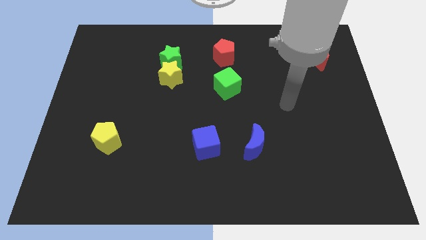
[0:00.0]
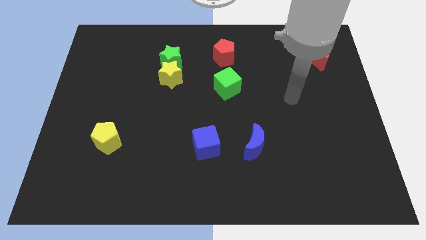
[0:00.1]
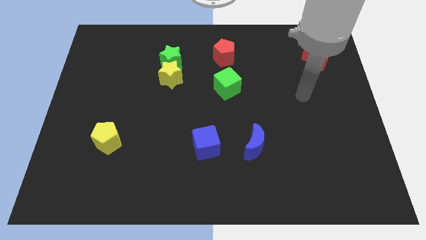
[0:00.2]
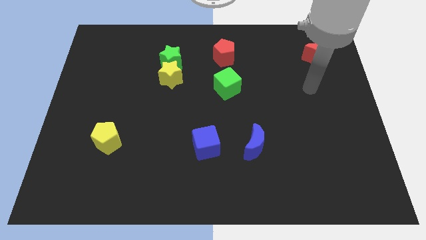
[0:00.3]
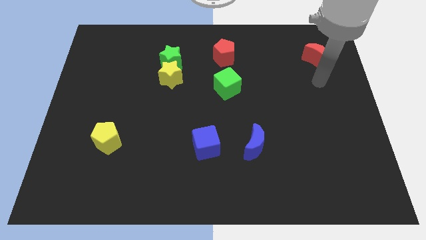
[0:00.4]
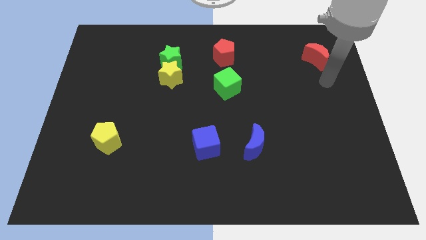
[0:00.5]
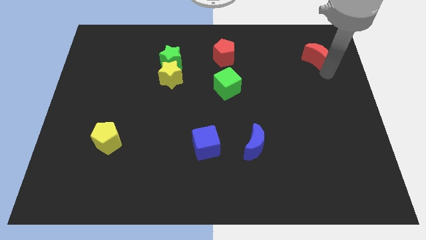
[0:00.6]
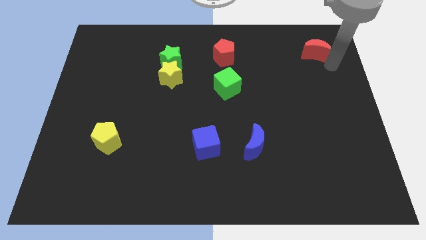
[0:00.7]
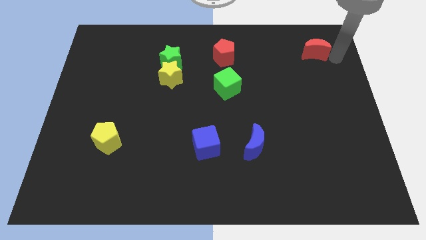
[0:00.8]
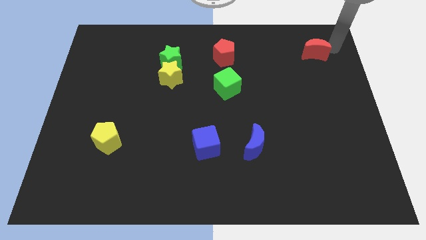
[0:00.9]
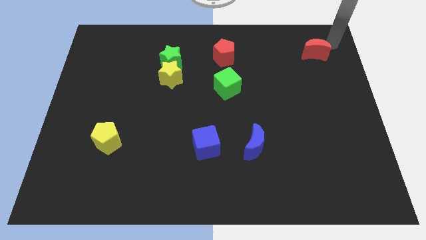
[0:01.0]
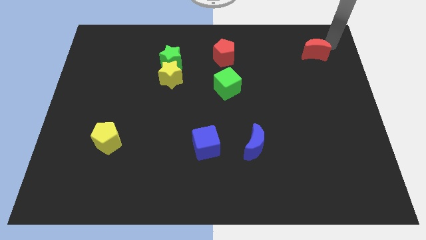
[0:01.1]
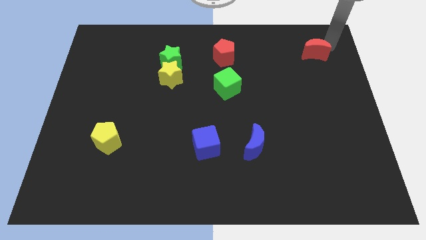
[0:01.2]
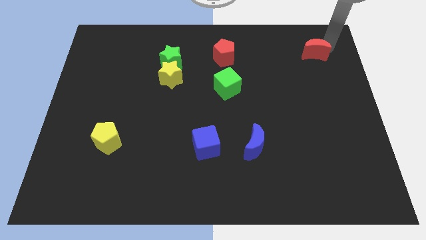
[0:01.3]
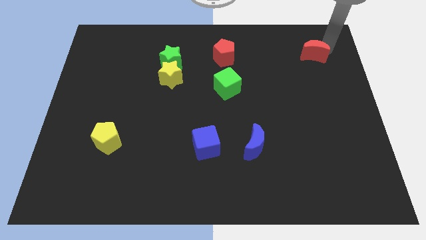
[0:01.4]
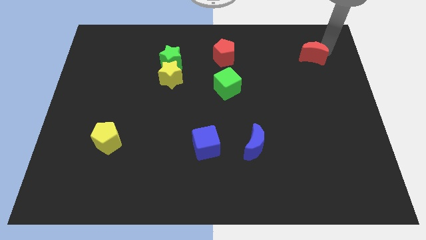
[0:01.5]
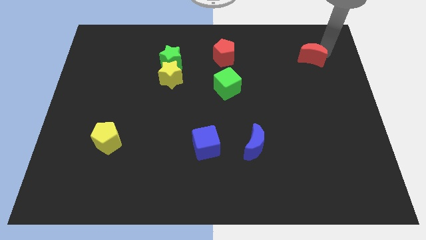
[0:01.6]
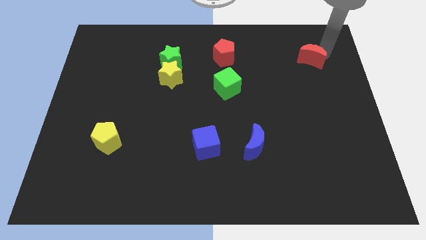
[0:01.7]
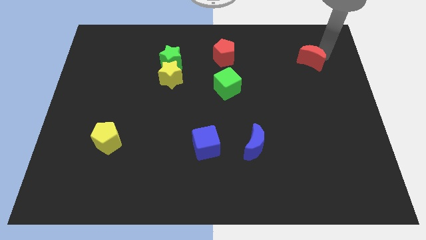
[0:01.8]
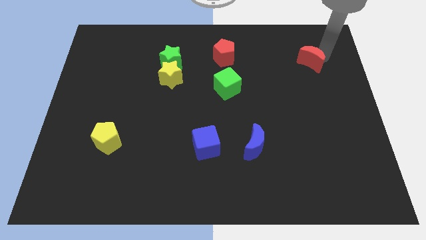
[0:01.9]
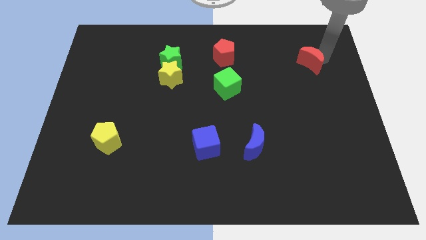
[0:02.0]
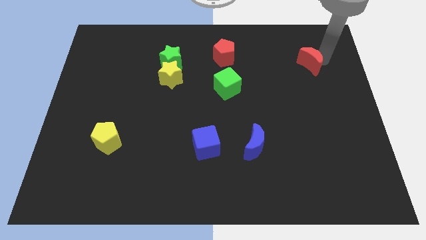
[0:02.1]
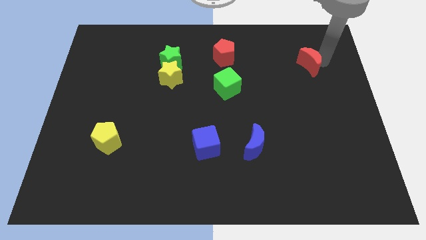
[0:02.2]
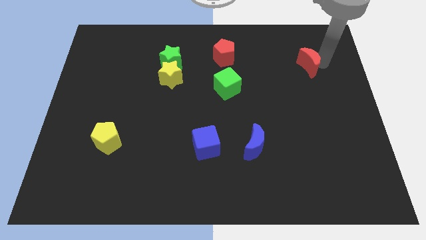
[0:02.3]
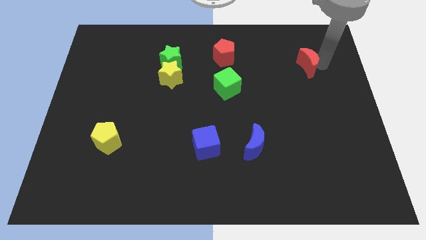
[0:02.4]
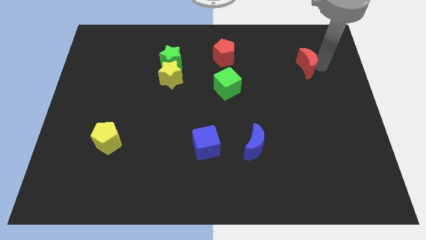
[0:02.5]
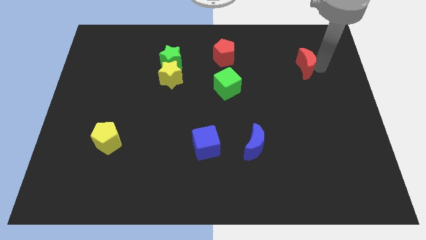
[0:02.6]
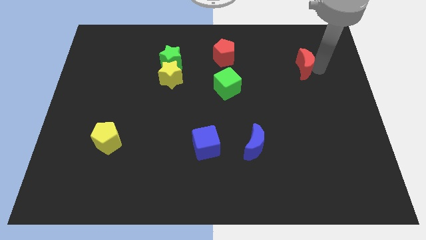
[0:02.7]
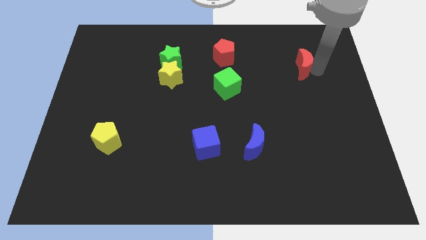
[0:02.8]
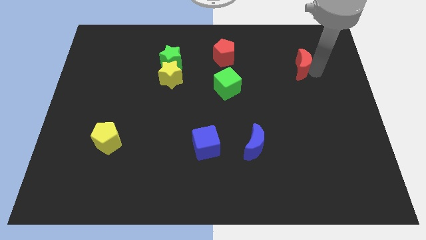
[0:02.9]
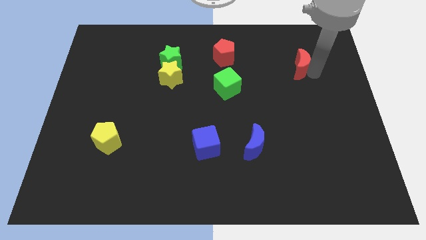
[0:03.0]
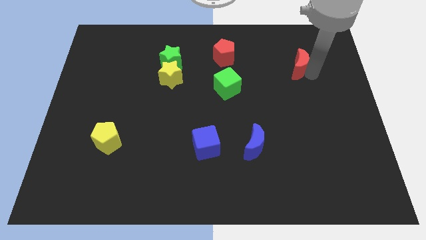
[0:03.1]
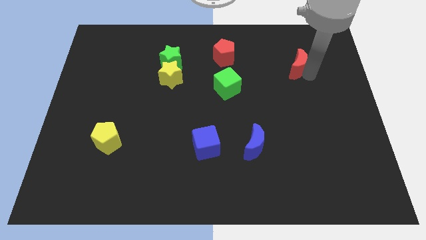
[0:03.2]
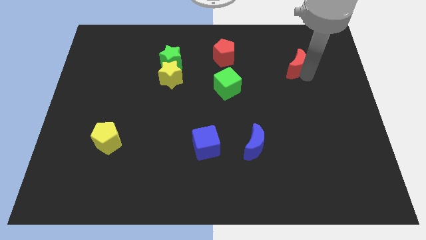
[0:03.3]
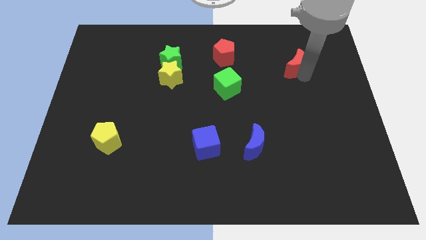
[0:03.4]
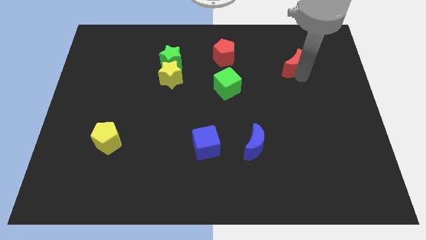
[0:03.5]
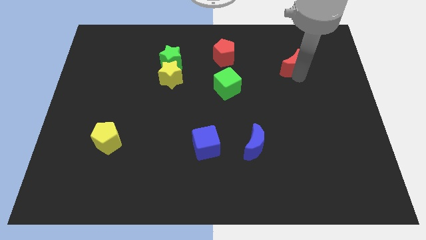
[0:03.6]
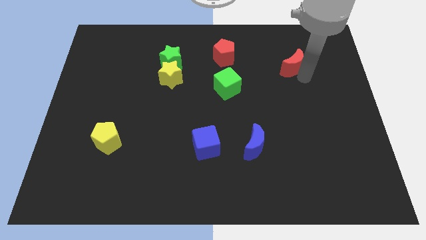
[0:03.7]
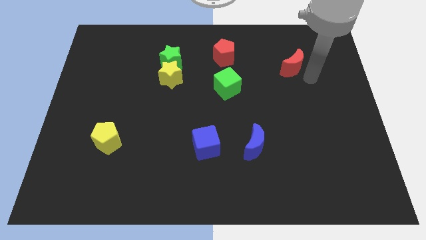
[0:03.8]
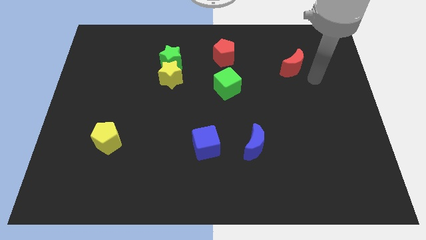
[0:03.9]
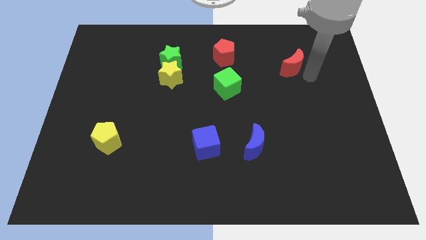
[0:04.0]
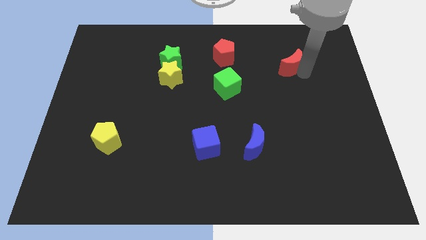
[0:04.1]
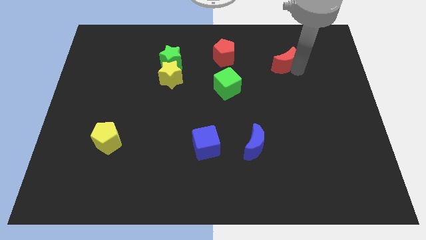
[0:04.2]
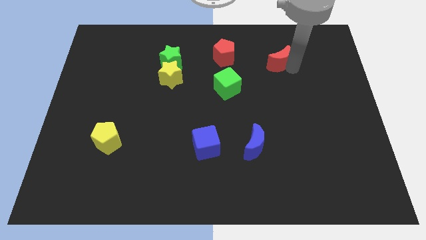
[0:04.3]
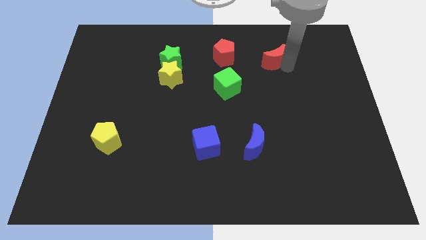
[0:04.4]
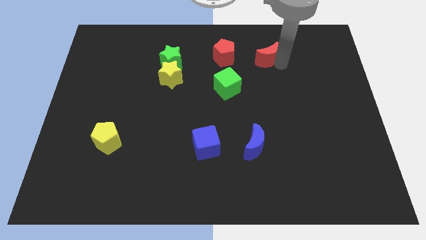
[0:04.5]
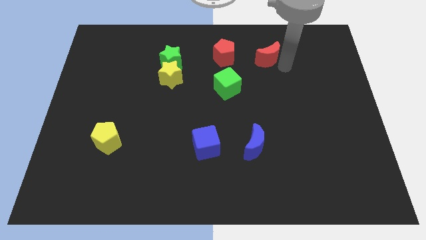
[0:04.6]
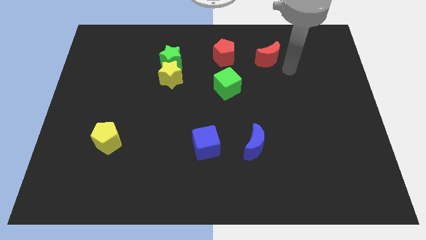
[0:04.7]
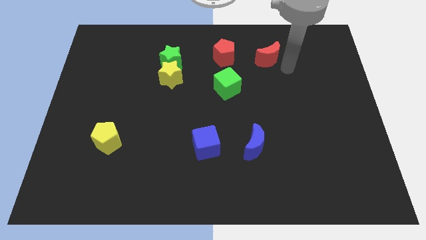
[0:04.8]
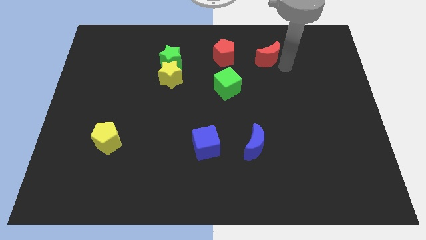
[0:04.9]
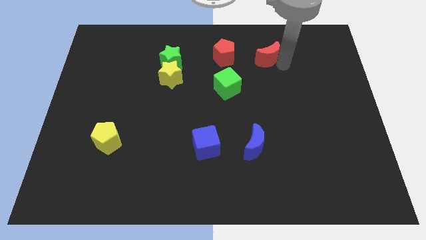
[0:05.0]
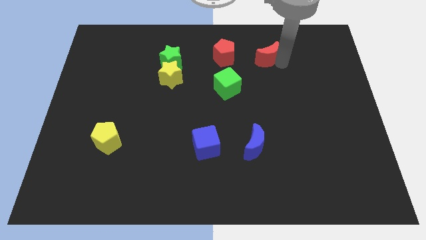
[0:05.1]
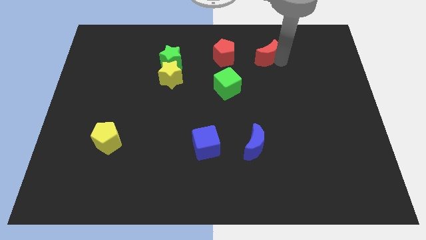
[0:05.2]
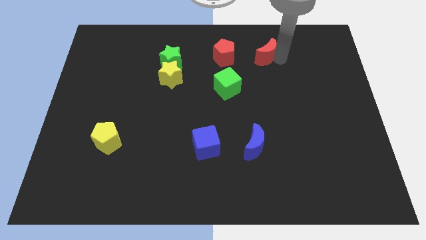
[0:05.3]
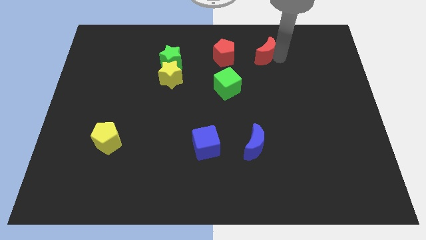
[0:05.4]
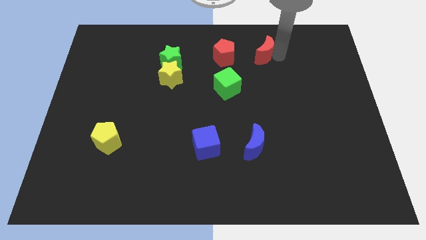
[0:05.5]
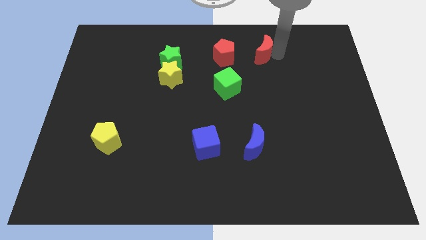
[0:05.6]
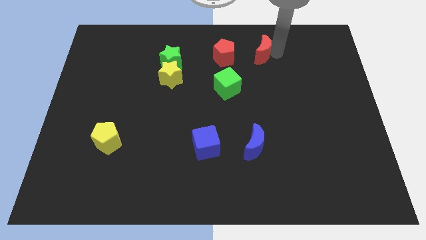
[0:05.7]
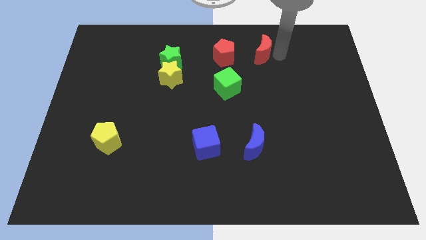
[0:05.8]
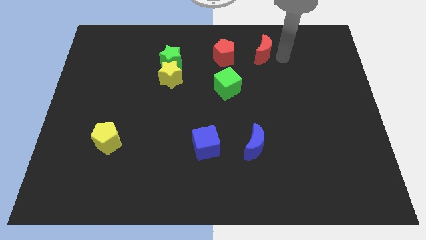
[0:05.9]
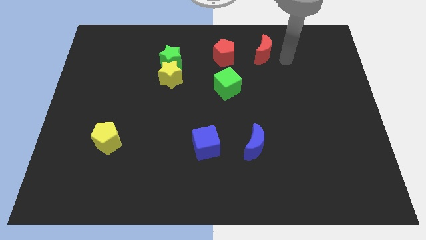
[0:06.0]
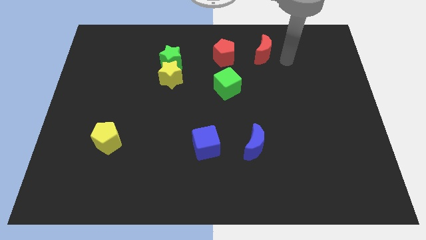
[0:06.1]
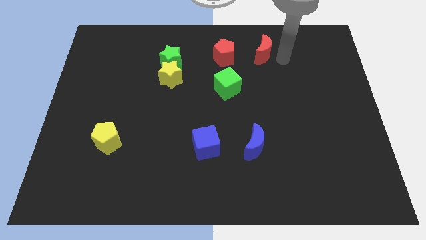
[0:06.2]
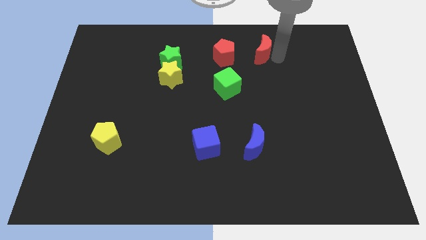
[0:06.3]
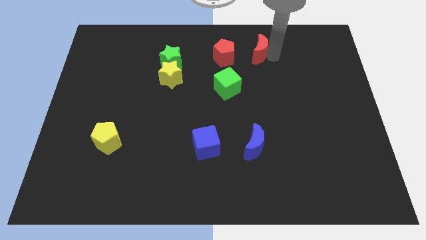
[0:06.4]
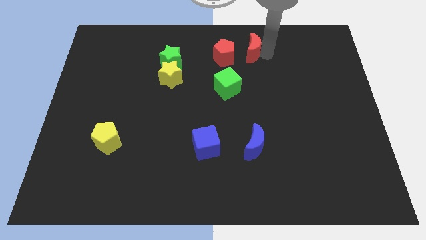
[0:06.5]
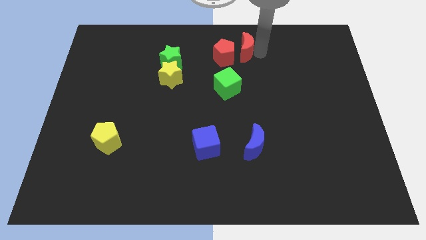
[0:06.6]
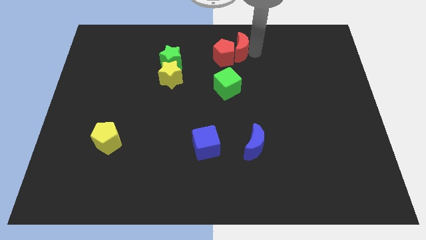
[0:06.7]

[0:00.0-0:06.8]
put the red moon to the top side

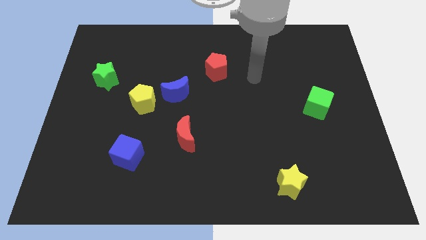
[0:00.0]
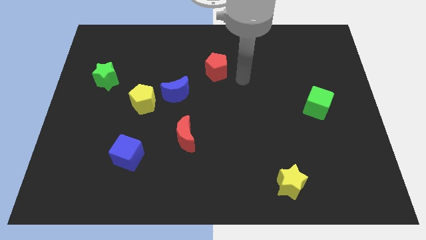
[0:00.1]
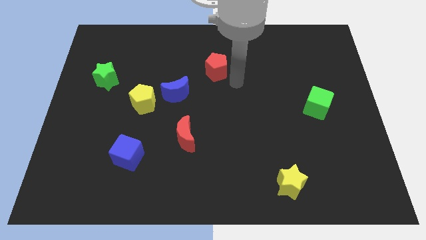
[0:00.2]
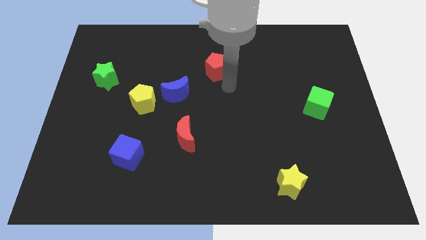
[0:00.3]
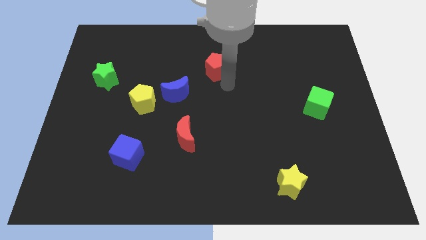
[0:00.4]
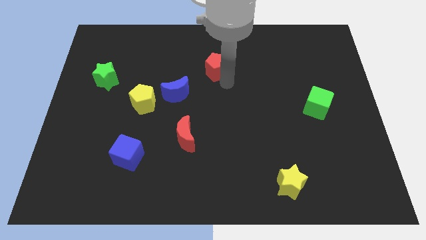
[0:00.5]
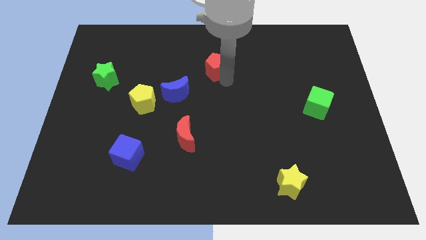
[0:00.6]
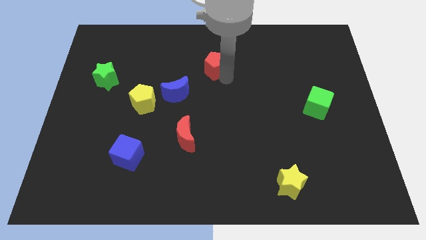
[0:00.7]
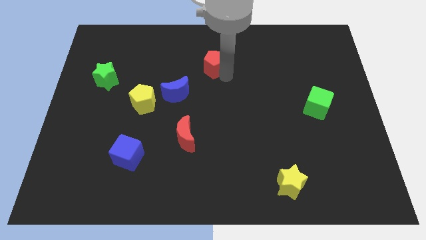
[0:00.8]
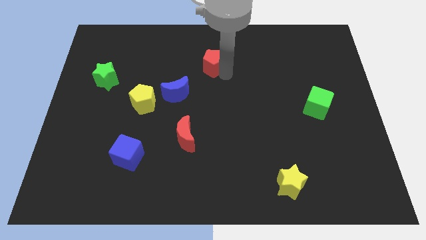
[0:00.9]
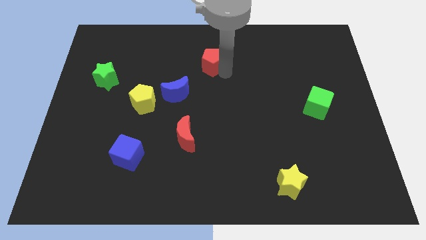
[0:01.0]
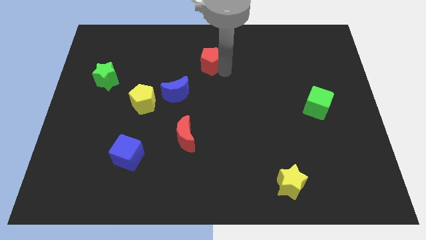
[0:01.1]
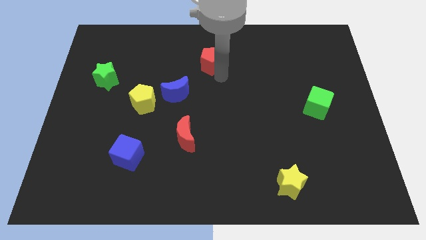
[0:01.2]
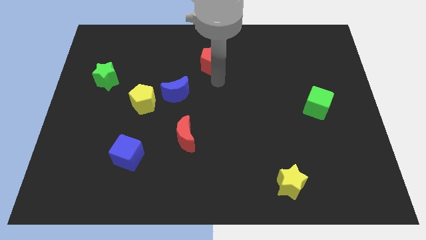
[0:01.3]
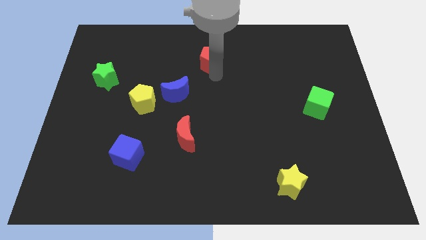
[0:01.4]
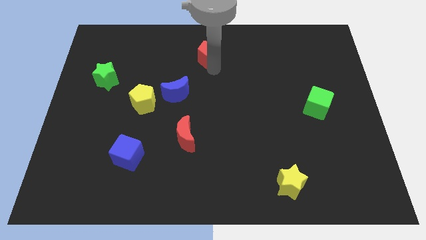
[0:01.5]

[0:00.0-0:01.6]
move the red pentagon to the top side
